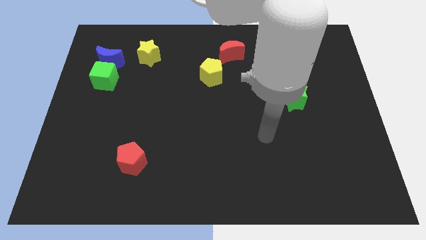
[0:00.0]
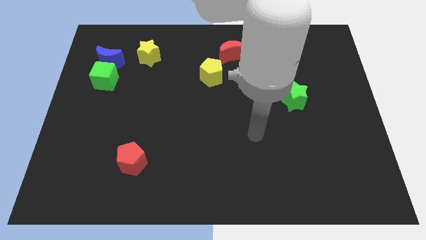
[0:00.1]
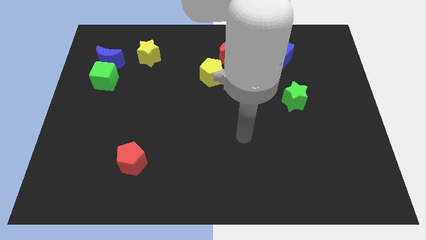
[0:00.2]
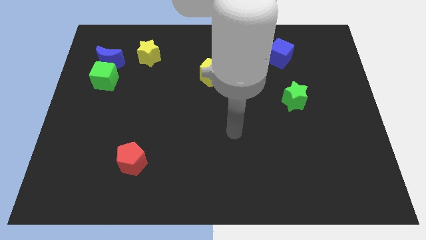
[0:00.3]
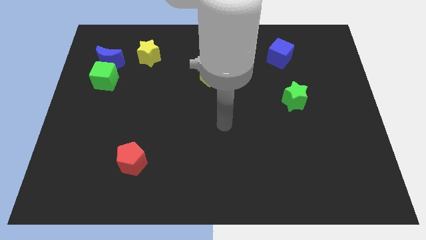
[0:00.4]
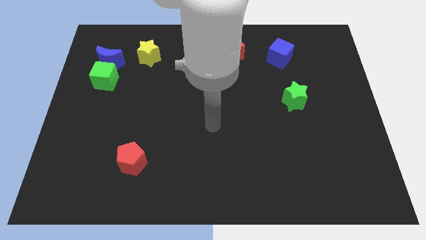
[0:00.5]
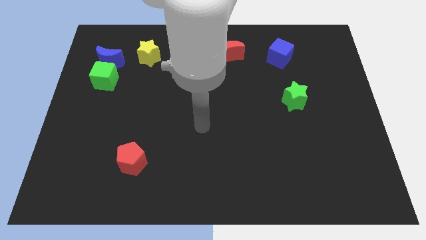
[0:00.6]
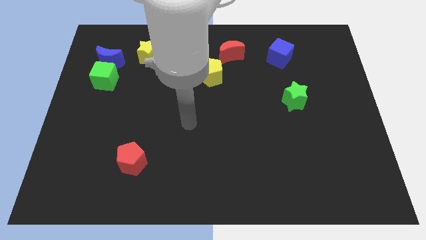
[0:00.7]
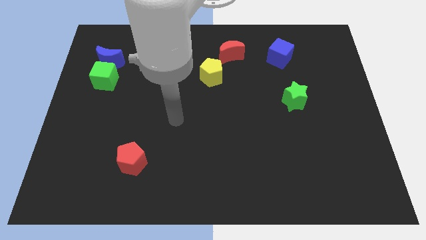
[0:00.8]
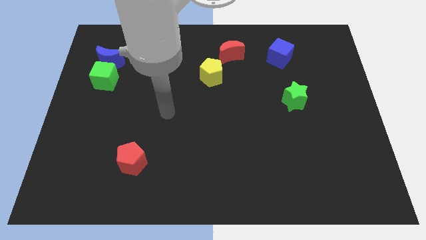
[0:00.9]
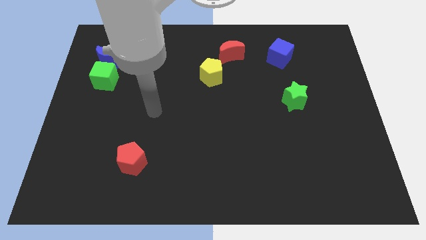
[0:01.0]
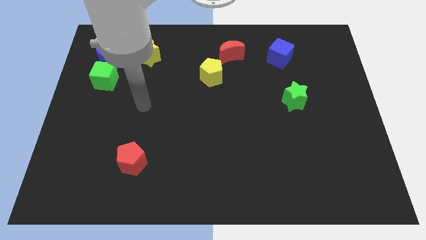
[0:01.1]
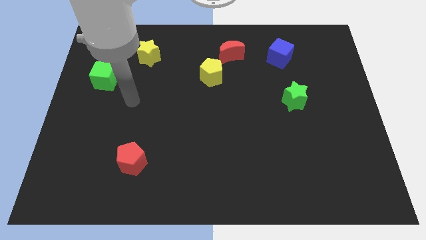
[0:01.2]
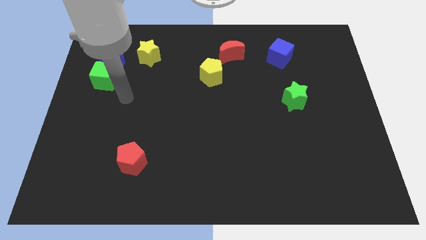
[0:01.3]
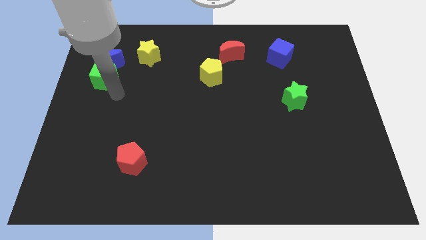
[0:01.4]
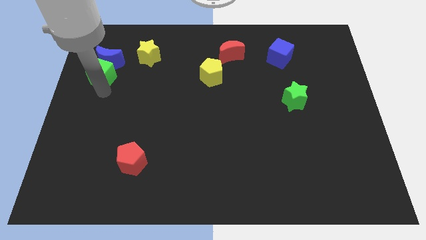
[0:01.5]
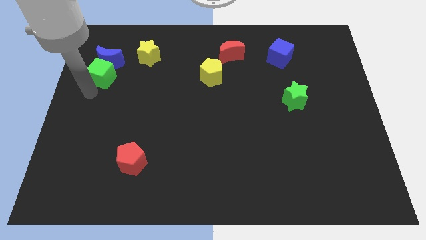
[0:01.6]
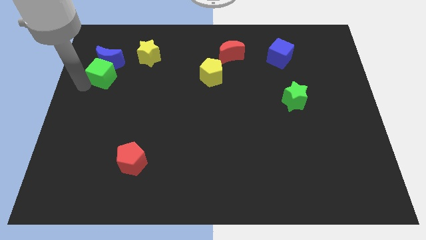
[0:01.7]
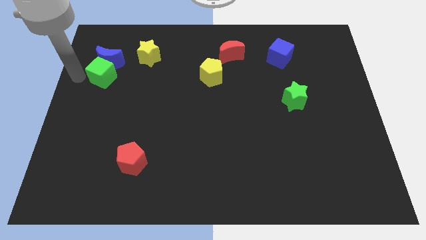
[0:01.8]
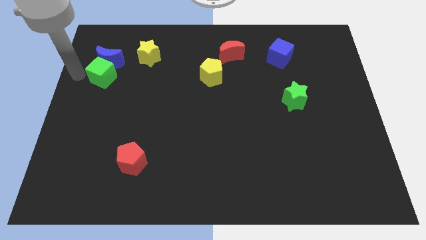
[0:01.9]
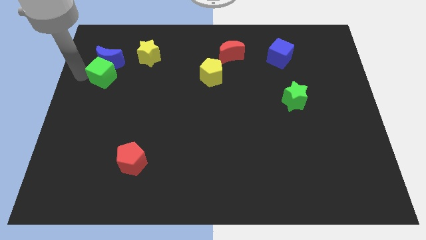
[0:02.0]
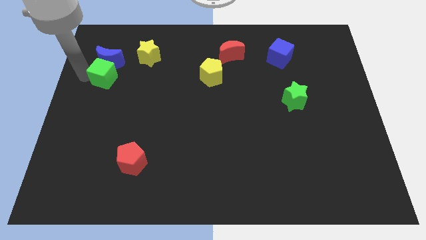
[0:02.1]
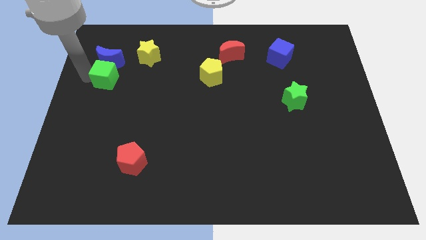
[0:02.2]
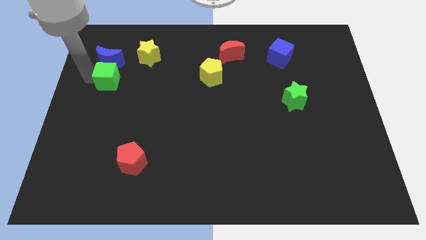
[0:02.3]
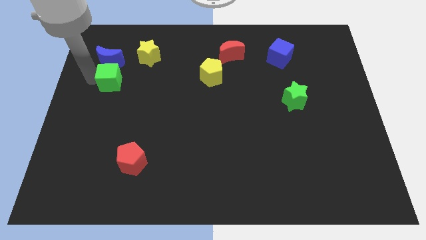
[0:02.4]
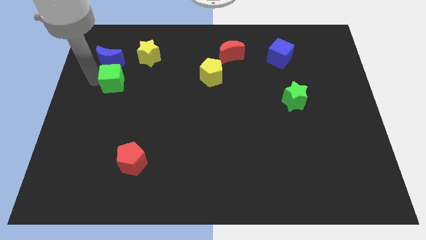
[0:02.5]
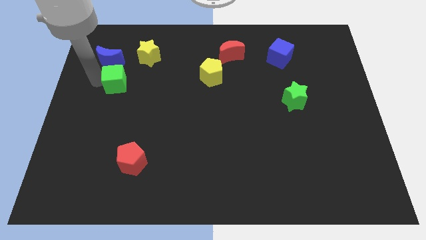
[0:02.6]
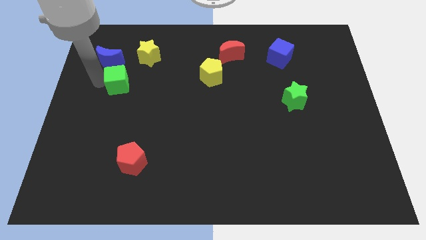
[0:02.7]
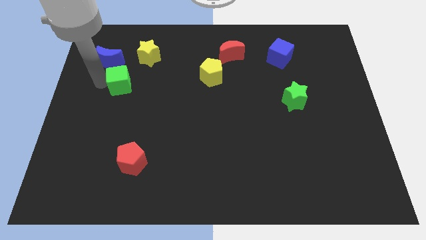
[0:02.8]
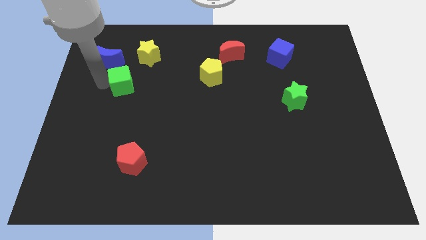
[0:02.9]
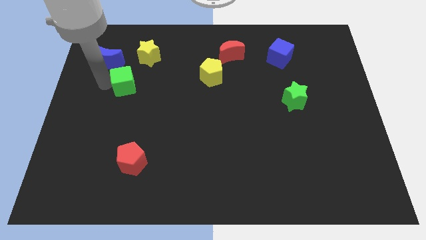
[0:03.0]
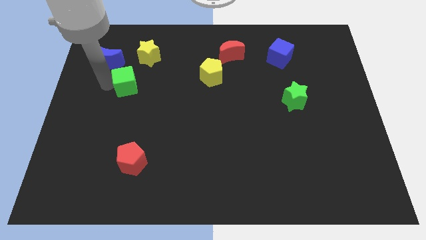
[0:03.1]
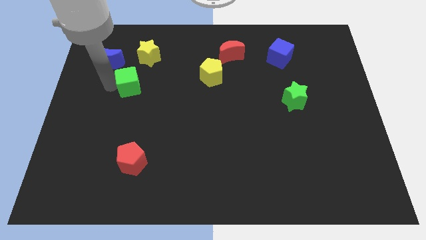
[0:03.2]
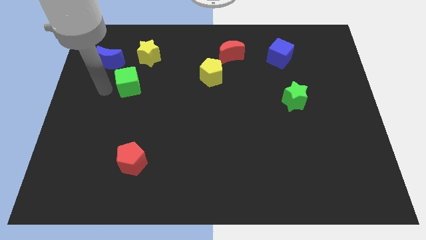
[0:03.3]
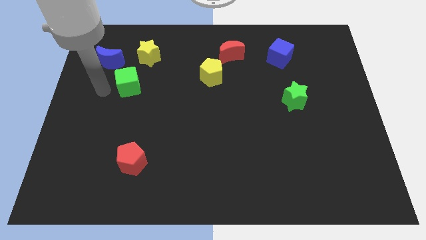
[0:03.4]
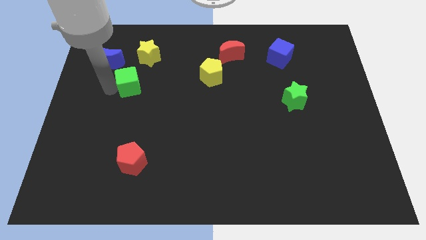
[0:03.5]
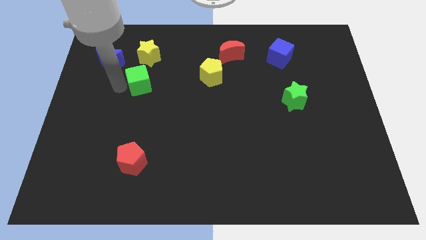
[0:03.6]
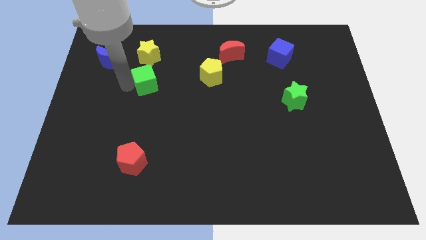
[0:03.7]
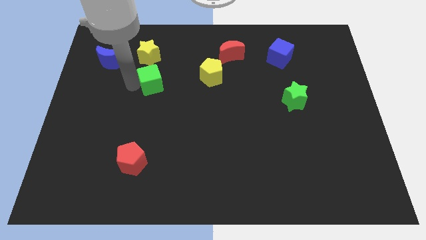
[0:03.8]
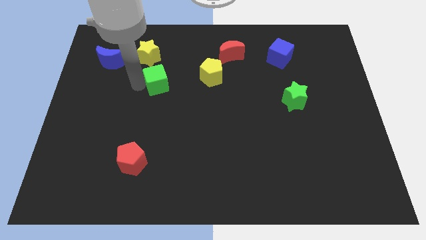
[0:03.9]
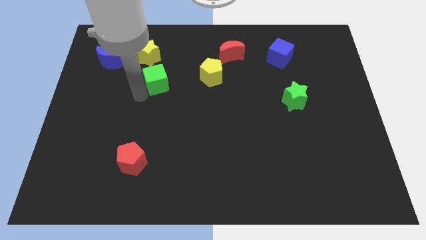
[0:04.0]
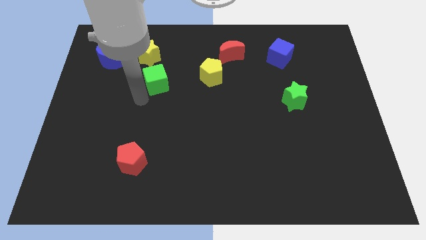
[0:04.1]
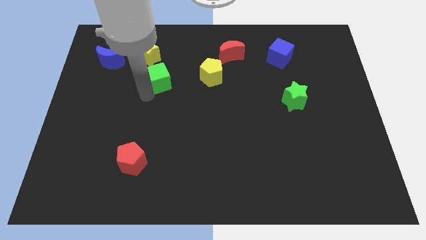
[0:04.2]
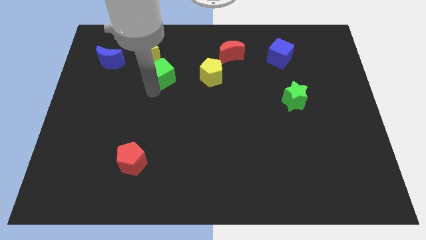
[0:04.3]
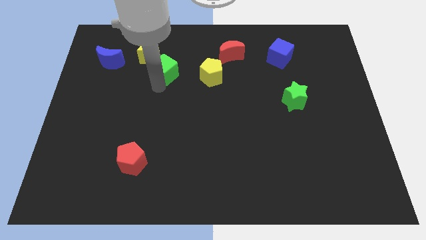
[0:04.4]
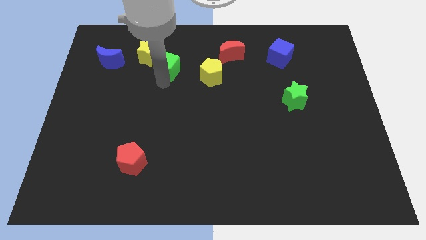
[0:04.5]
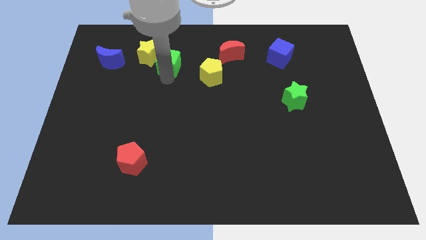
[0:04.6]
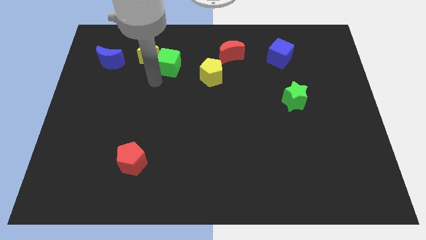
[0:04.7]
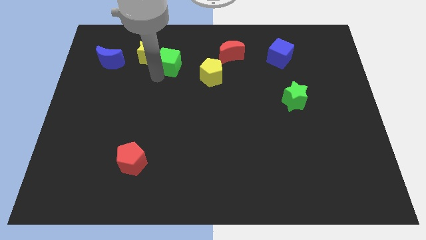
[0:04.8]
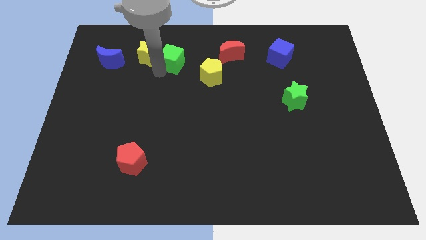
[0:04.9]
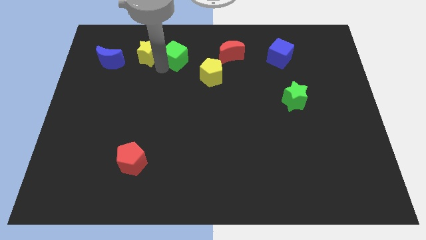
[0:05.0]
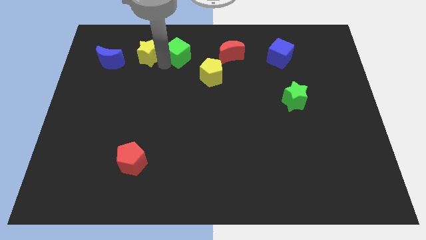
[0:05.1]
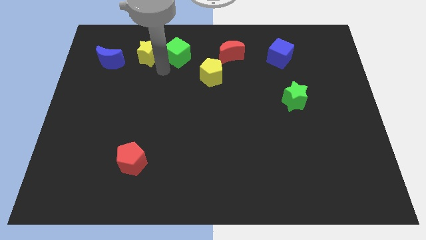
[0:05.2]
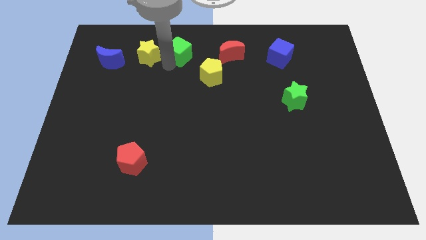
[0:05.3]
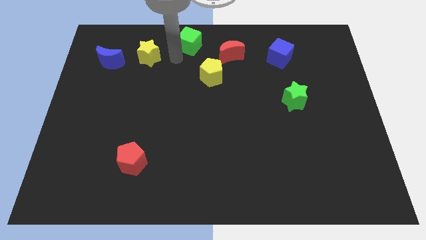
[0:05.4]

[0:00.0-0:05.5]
push the green cube to the top
